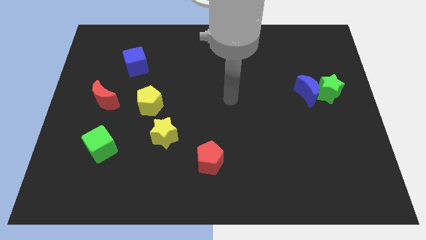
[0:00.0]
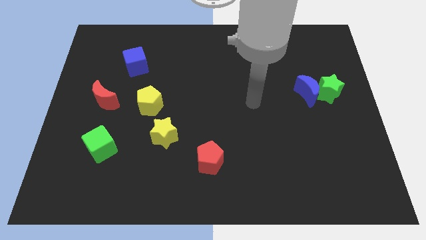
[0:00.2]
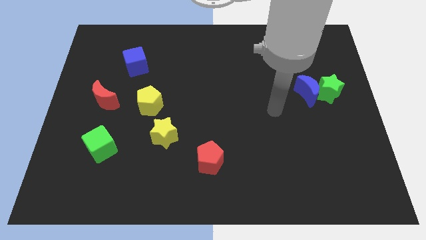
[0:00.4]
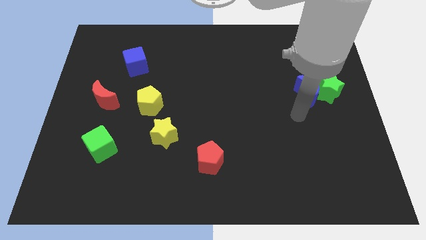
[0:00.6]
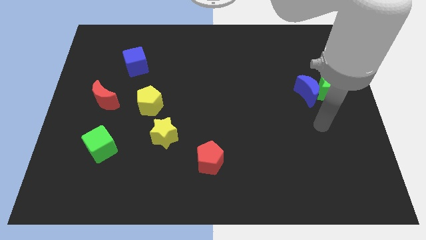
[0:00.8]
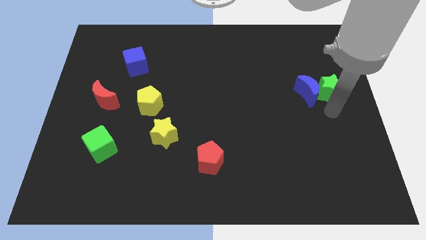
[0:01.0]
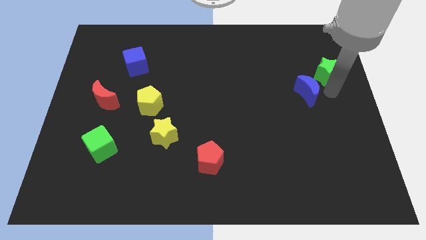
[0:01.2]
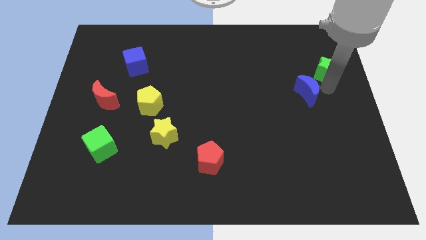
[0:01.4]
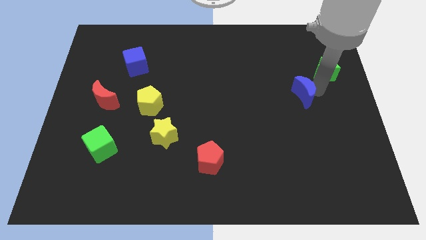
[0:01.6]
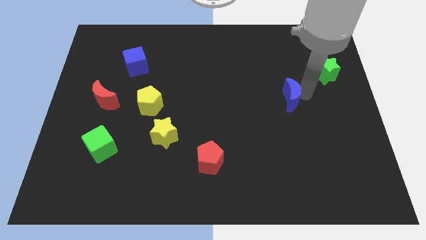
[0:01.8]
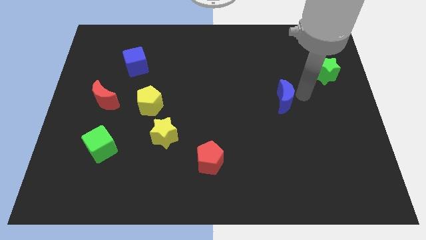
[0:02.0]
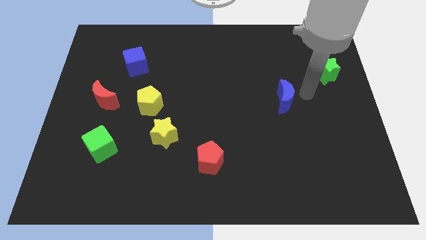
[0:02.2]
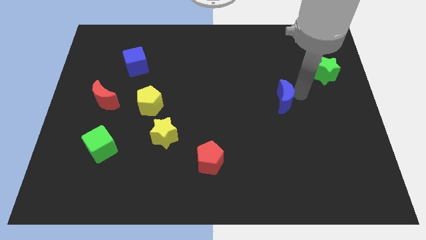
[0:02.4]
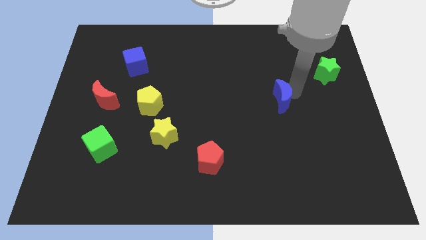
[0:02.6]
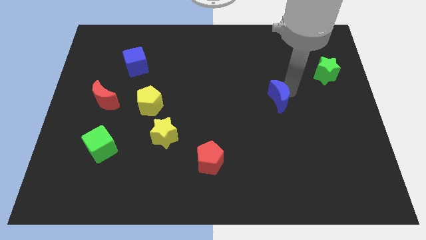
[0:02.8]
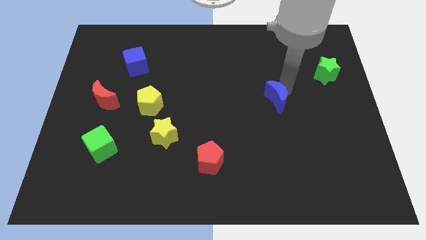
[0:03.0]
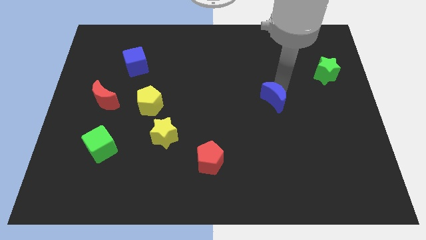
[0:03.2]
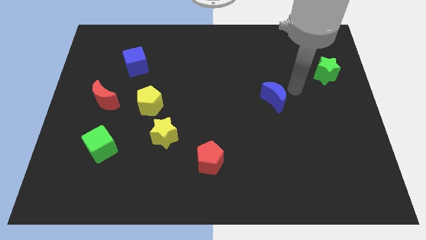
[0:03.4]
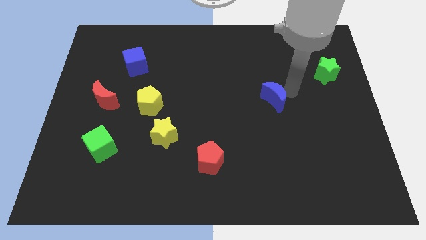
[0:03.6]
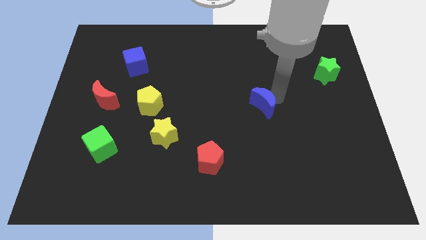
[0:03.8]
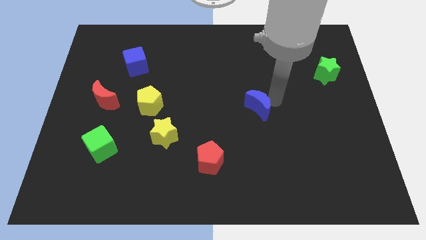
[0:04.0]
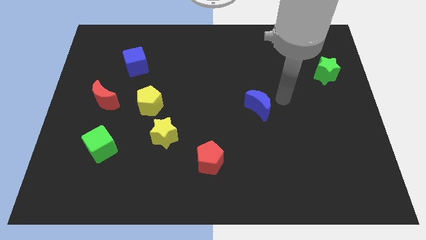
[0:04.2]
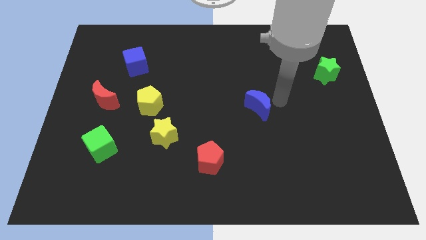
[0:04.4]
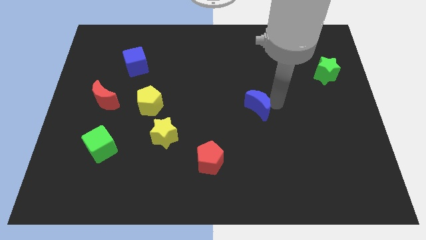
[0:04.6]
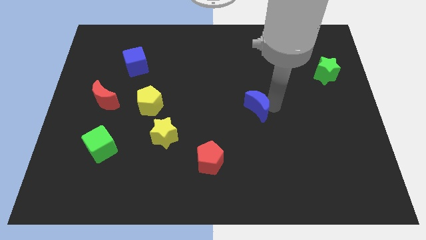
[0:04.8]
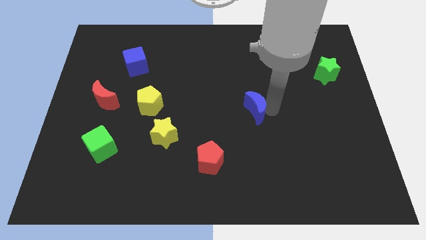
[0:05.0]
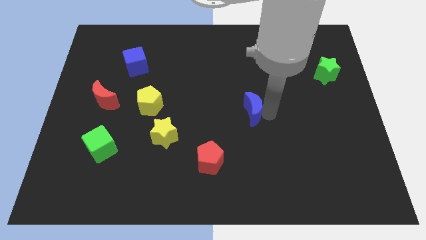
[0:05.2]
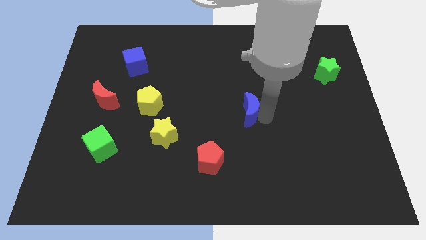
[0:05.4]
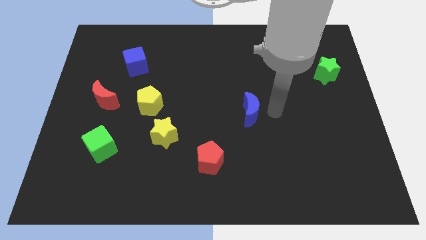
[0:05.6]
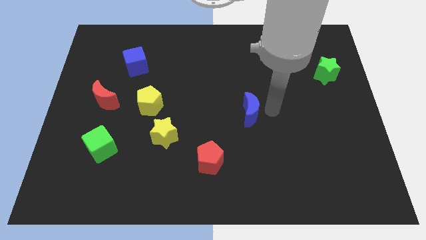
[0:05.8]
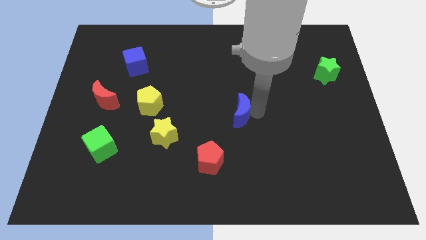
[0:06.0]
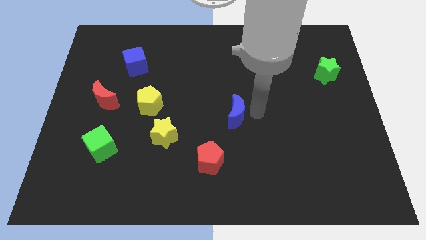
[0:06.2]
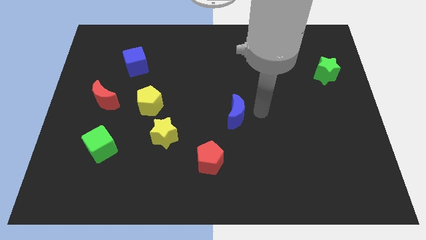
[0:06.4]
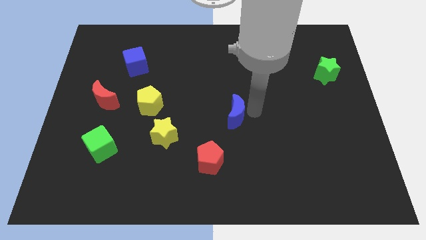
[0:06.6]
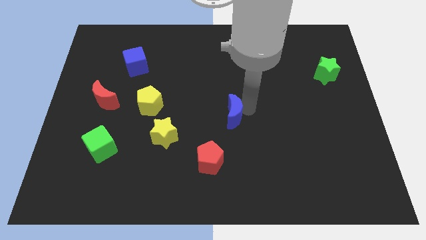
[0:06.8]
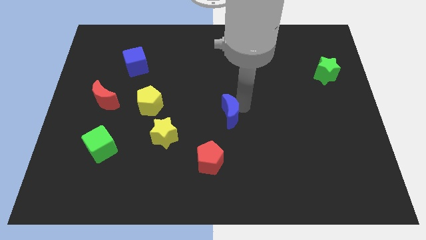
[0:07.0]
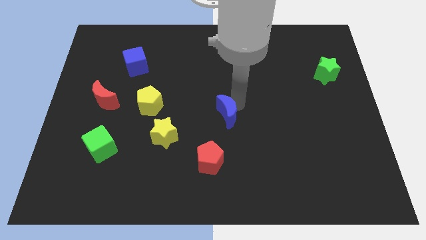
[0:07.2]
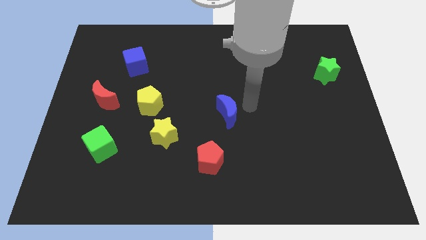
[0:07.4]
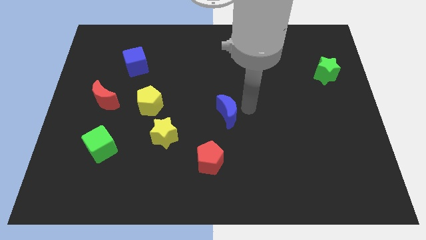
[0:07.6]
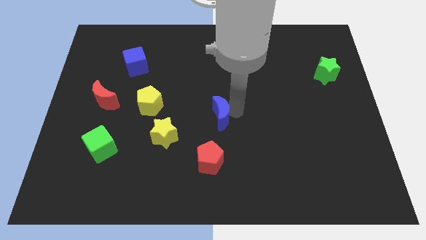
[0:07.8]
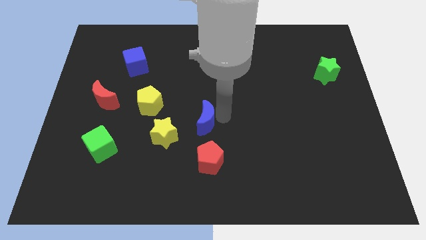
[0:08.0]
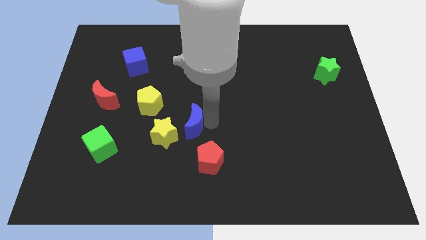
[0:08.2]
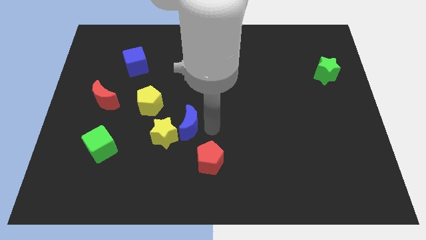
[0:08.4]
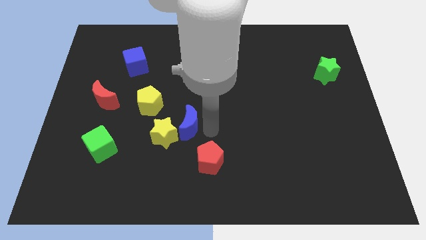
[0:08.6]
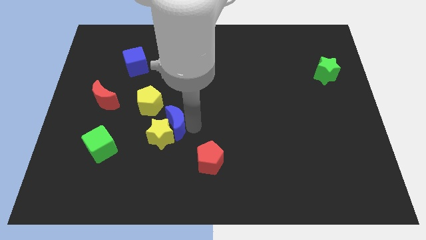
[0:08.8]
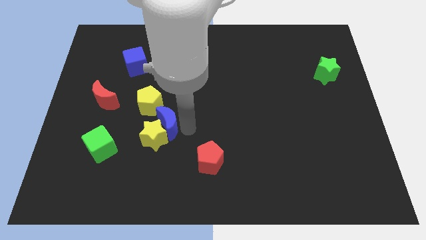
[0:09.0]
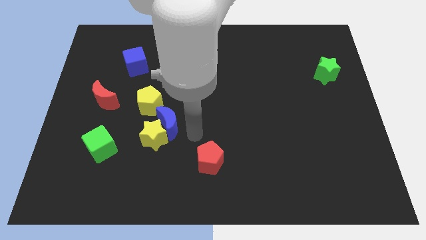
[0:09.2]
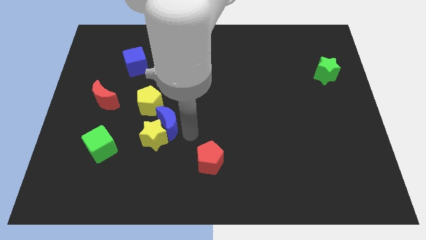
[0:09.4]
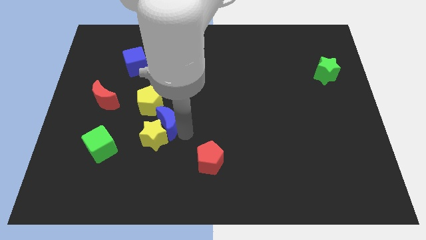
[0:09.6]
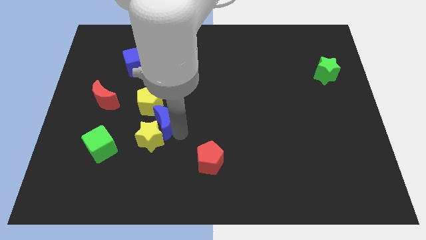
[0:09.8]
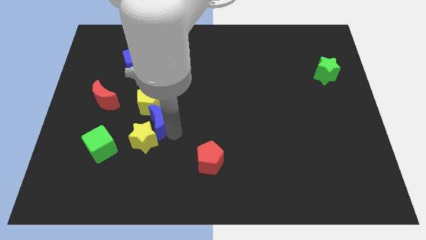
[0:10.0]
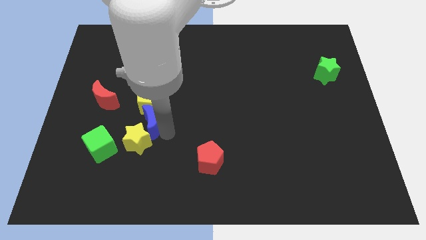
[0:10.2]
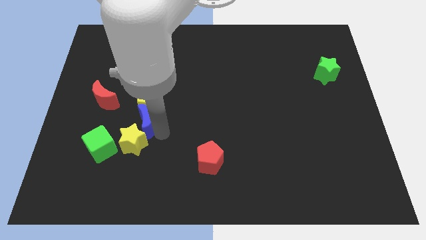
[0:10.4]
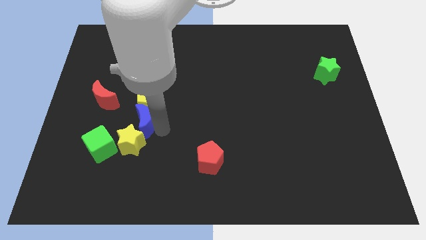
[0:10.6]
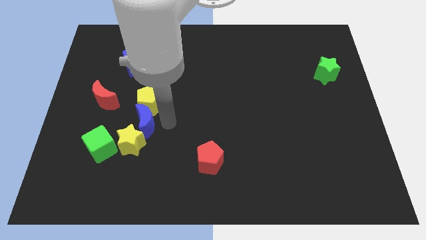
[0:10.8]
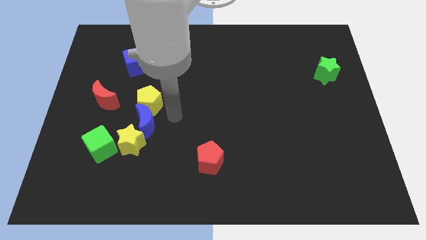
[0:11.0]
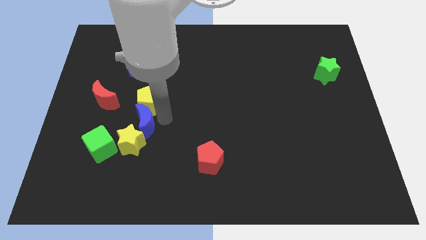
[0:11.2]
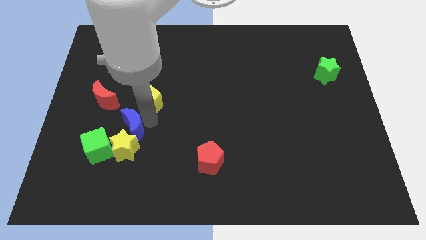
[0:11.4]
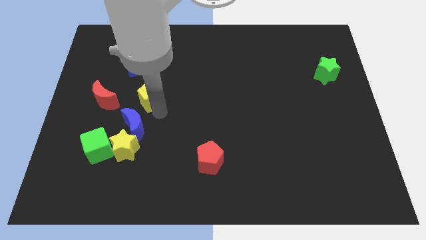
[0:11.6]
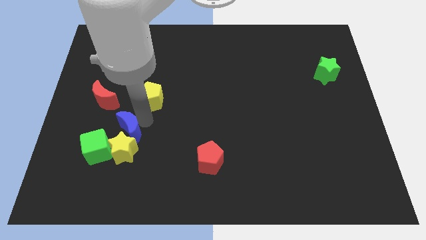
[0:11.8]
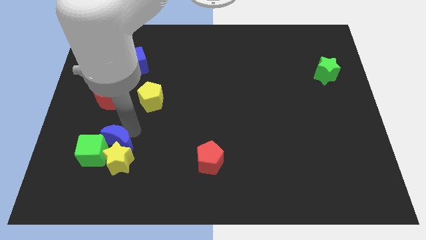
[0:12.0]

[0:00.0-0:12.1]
move the blue moon next to the green cube
